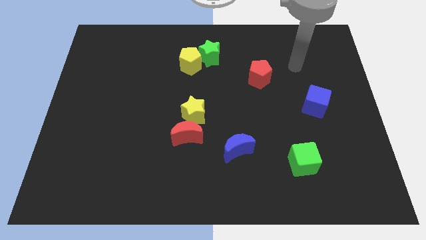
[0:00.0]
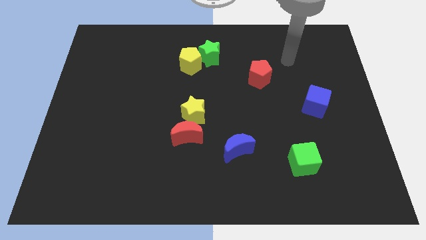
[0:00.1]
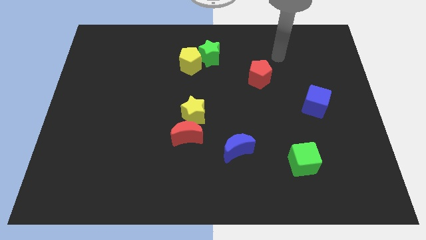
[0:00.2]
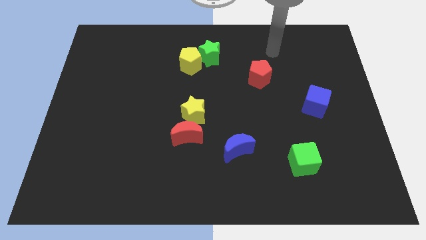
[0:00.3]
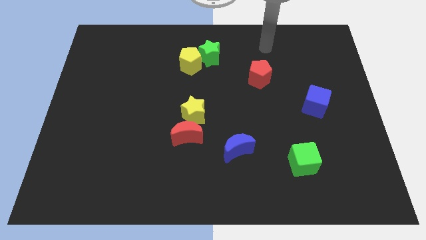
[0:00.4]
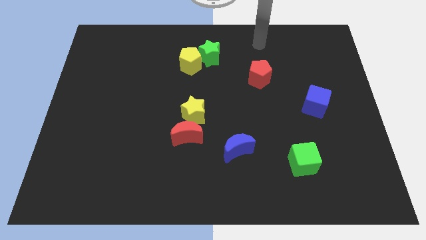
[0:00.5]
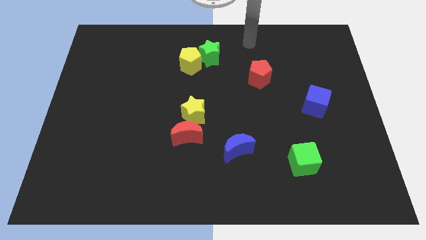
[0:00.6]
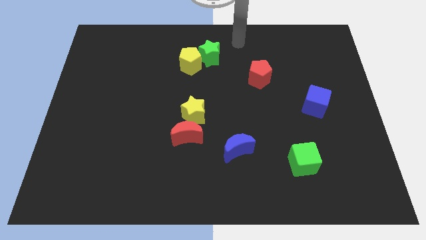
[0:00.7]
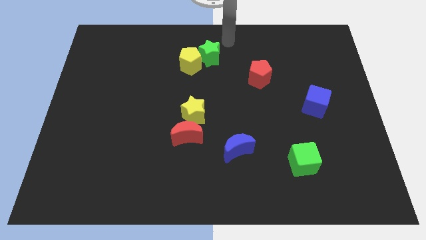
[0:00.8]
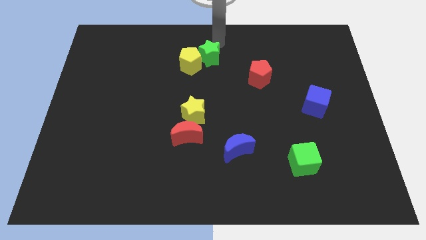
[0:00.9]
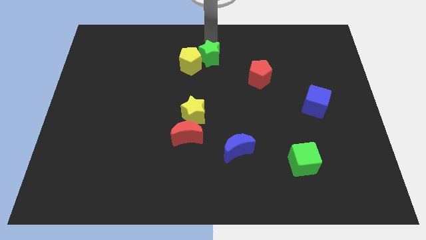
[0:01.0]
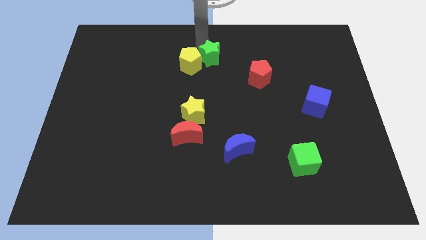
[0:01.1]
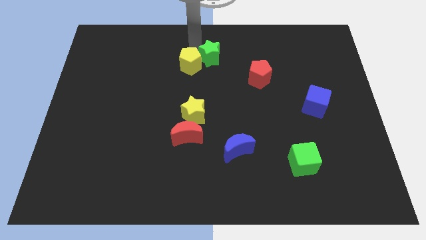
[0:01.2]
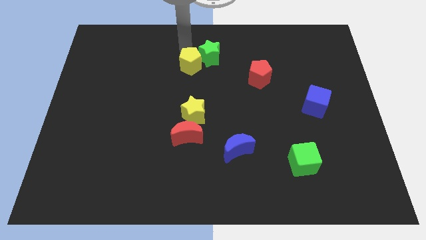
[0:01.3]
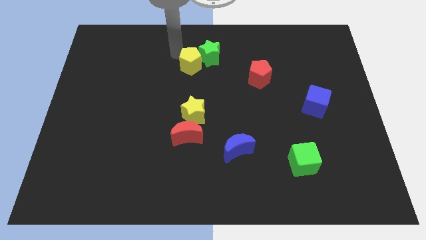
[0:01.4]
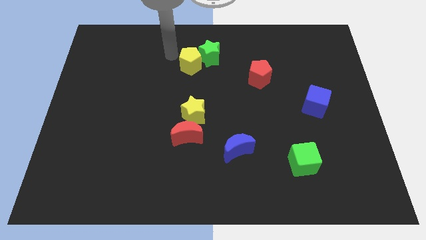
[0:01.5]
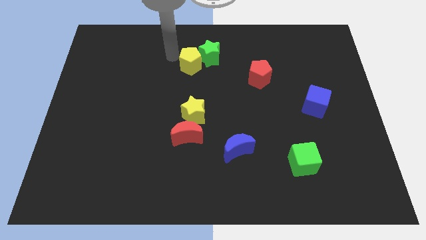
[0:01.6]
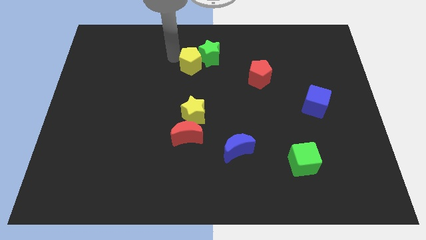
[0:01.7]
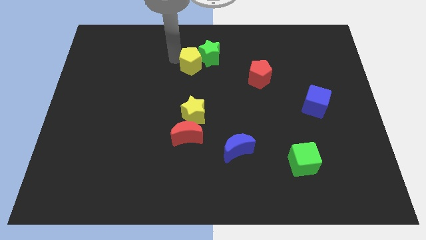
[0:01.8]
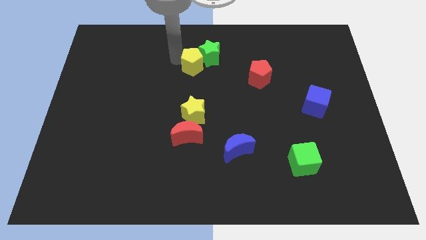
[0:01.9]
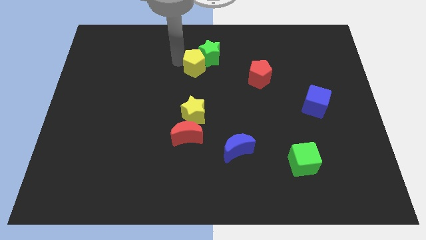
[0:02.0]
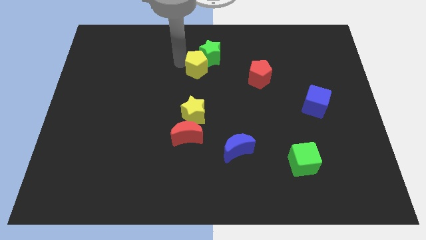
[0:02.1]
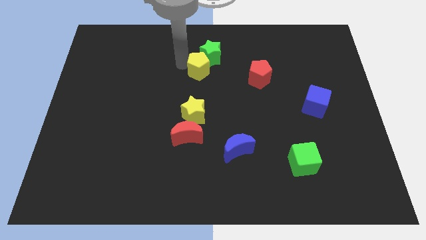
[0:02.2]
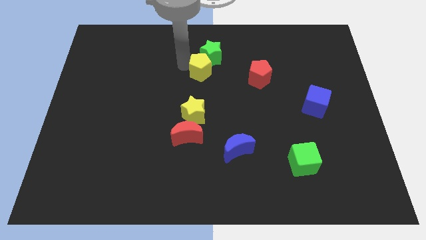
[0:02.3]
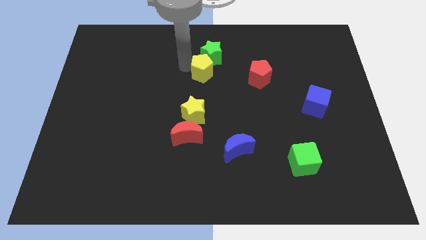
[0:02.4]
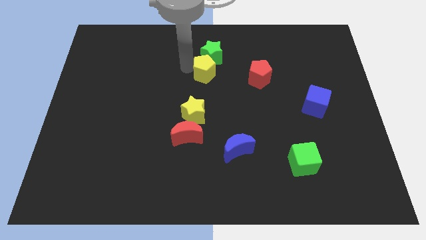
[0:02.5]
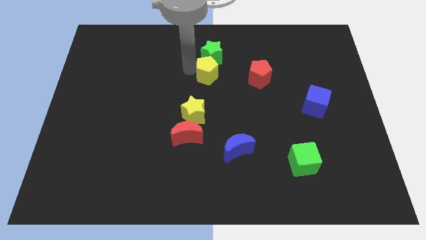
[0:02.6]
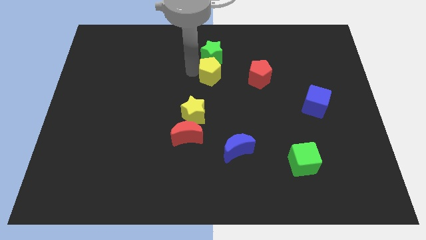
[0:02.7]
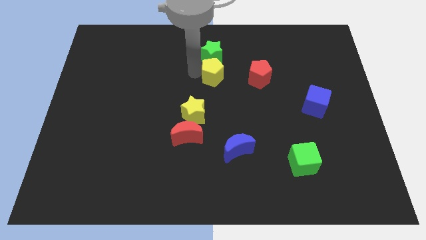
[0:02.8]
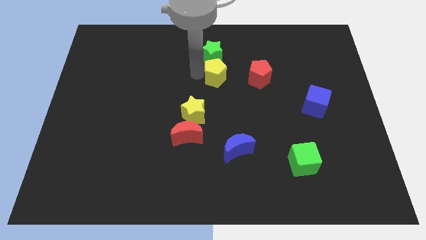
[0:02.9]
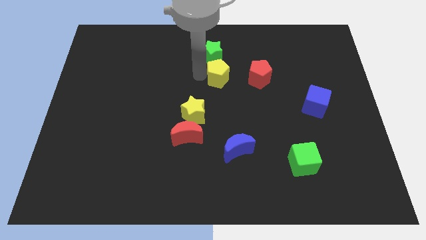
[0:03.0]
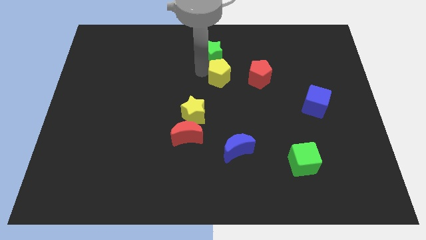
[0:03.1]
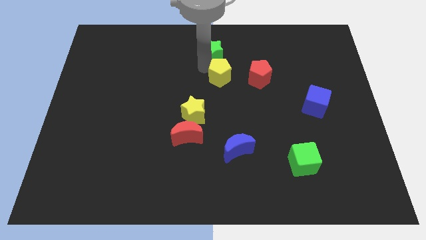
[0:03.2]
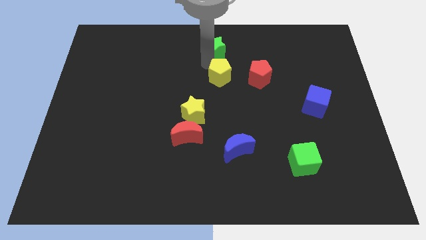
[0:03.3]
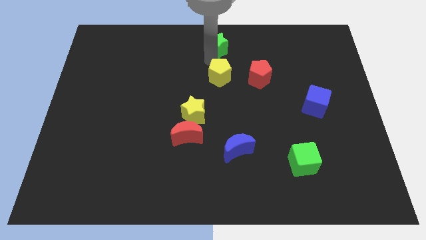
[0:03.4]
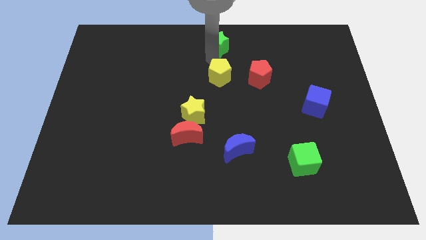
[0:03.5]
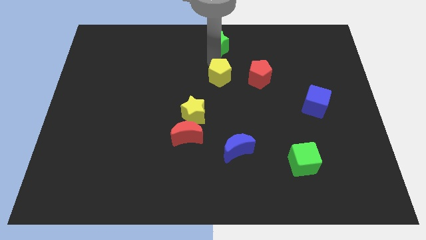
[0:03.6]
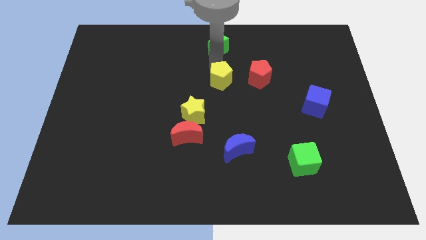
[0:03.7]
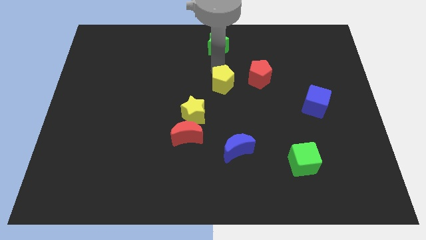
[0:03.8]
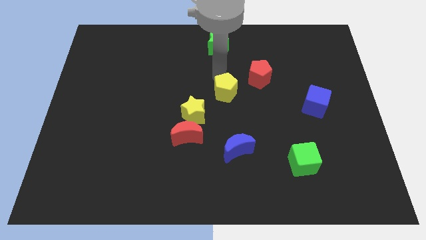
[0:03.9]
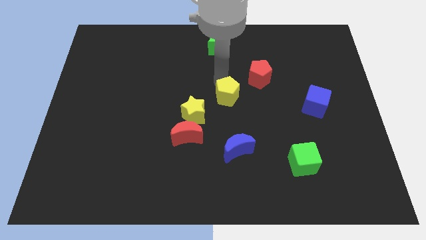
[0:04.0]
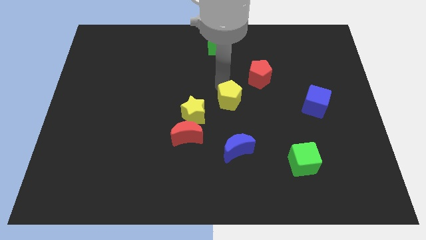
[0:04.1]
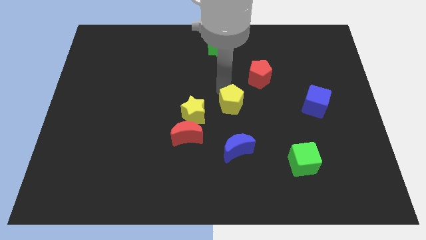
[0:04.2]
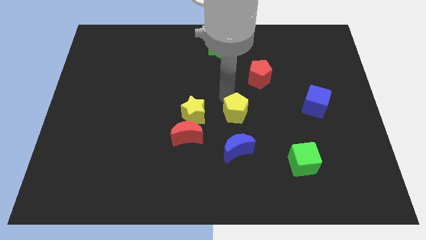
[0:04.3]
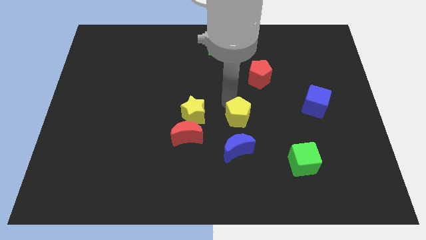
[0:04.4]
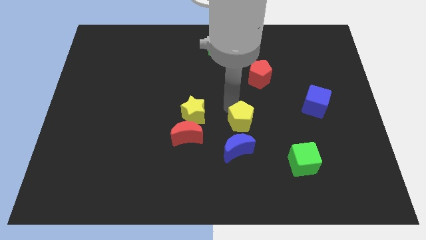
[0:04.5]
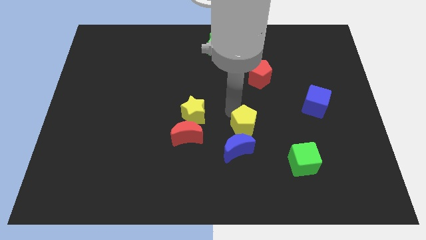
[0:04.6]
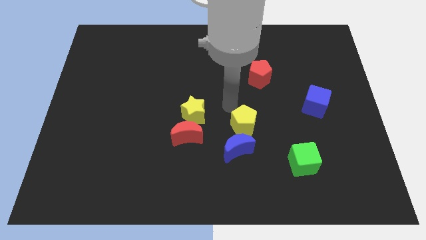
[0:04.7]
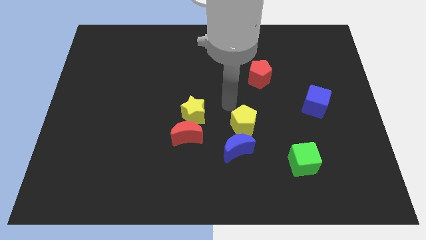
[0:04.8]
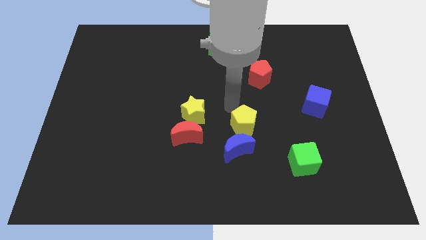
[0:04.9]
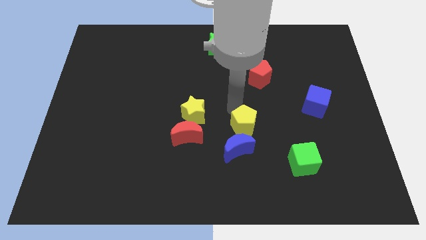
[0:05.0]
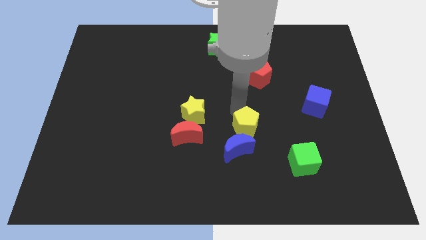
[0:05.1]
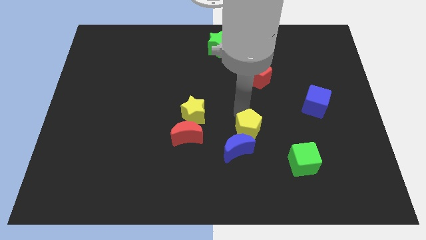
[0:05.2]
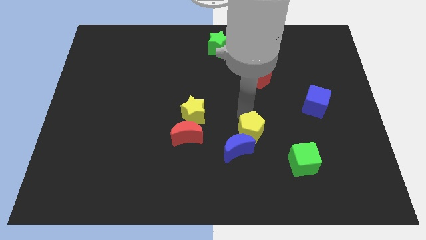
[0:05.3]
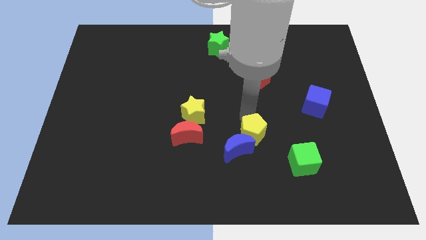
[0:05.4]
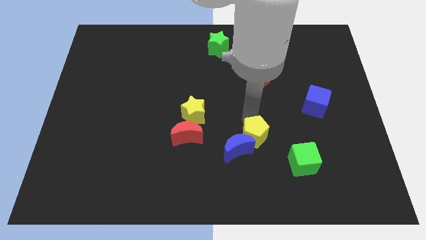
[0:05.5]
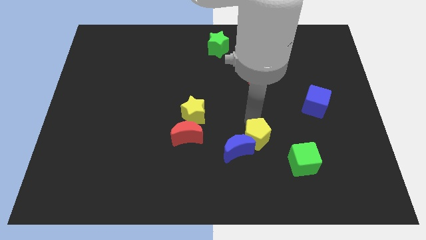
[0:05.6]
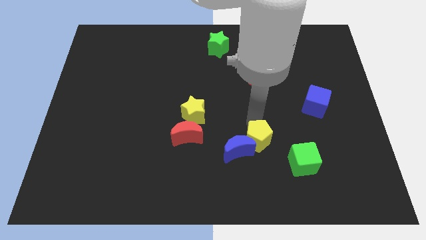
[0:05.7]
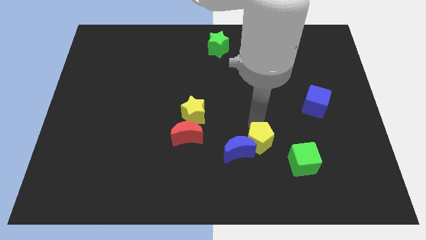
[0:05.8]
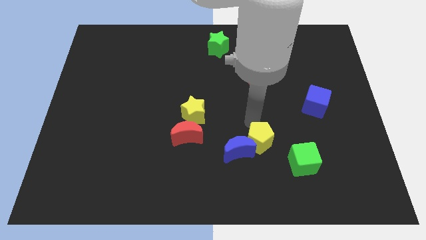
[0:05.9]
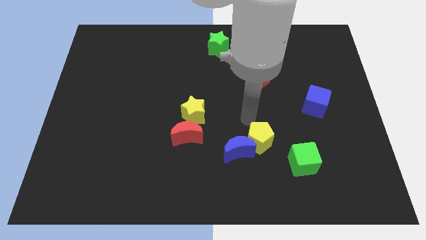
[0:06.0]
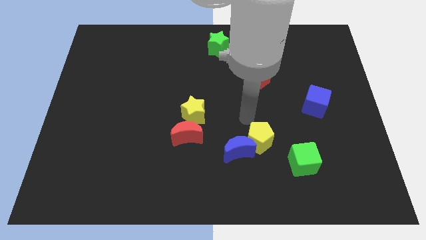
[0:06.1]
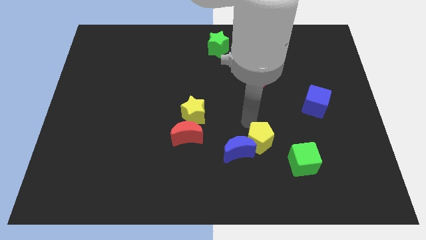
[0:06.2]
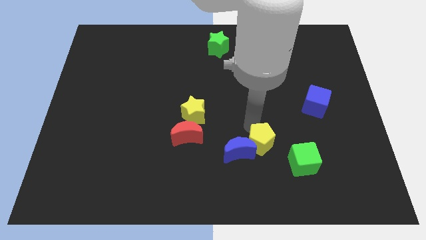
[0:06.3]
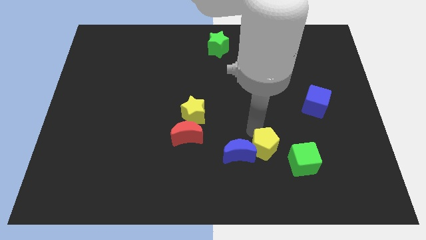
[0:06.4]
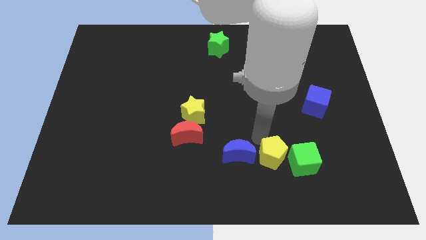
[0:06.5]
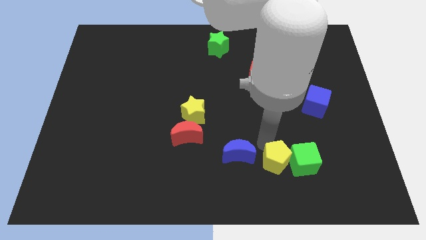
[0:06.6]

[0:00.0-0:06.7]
push the yellow pentagon to the bottom left side of the green cube

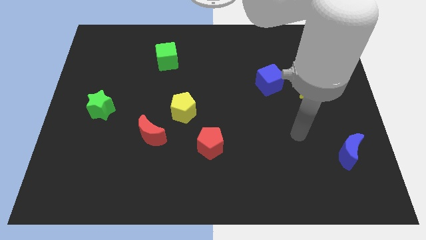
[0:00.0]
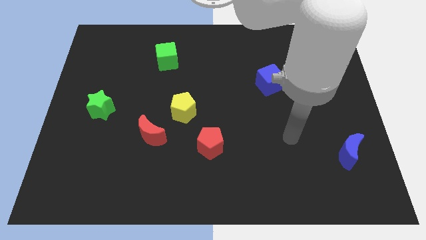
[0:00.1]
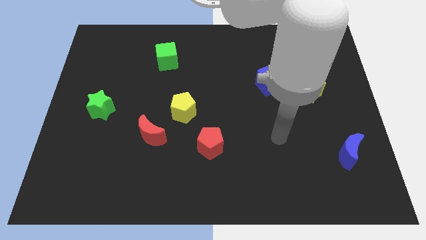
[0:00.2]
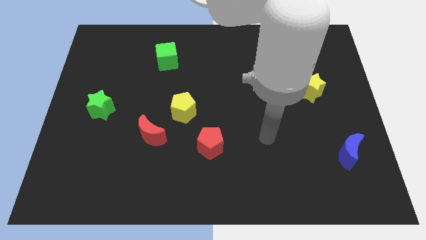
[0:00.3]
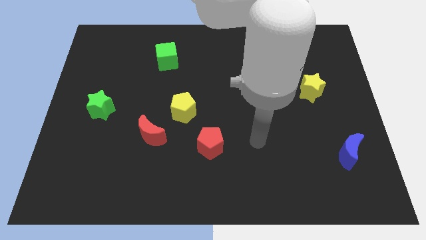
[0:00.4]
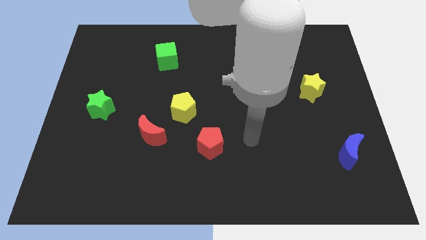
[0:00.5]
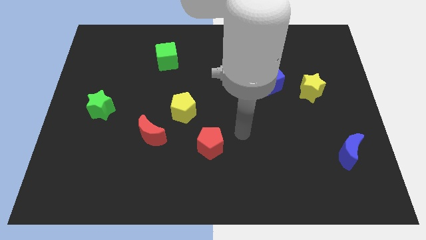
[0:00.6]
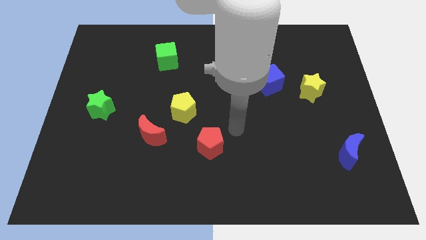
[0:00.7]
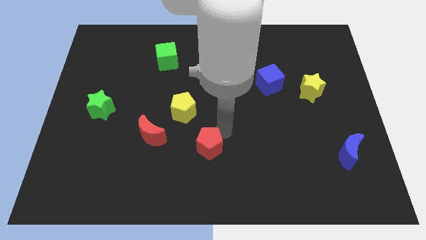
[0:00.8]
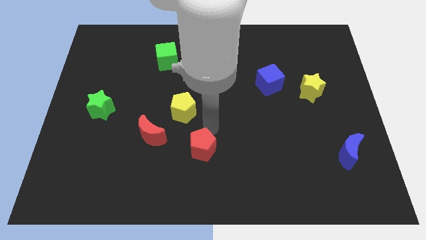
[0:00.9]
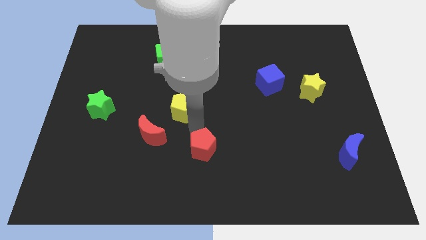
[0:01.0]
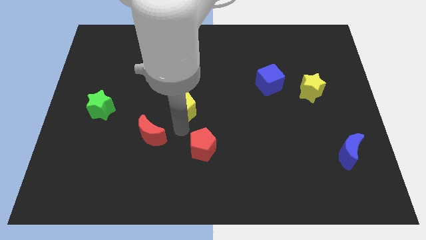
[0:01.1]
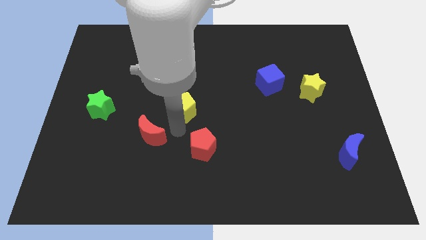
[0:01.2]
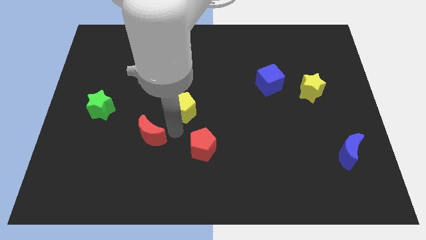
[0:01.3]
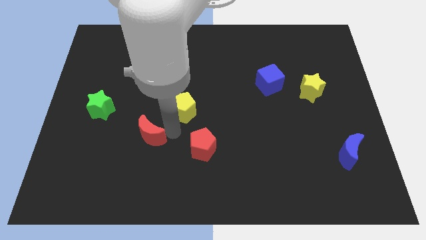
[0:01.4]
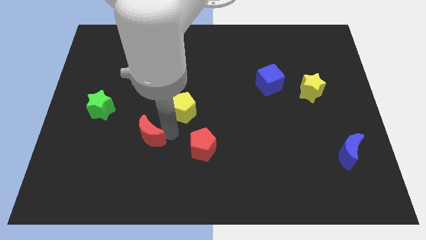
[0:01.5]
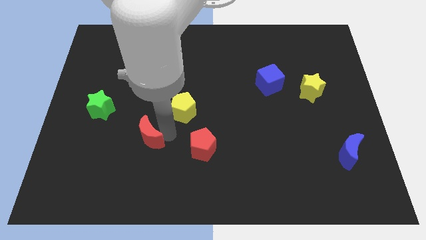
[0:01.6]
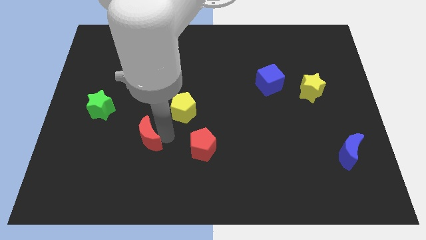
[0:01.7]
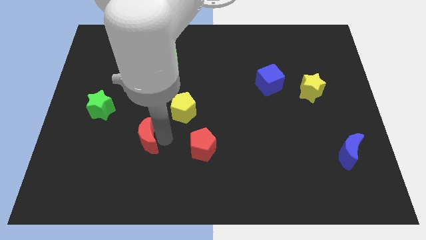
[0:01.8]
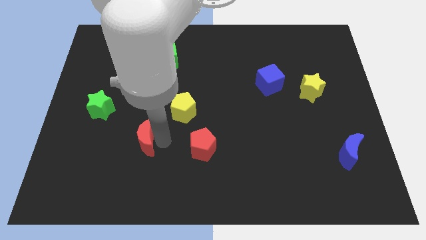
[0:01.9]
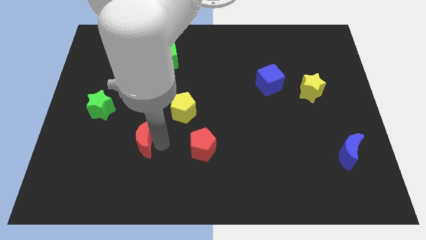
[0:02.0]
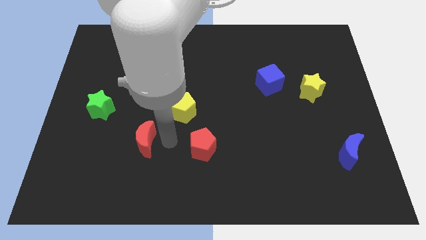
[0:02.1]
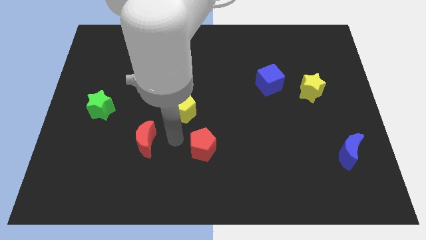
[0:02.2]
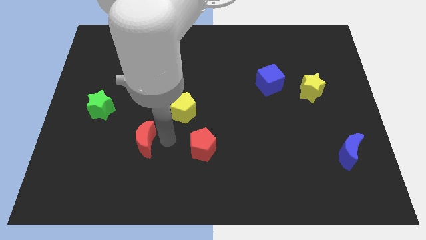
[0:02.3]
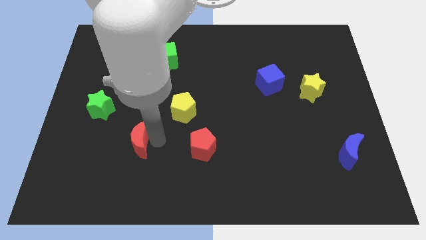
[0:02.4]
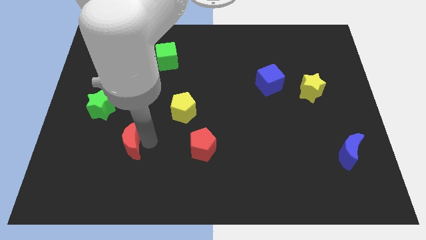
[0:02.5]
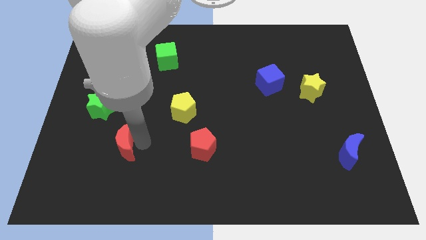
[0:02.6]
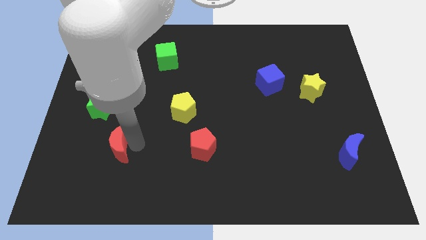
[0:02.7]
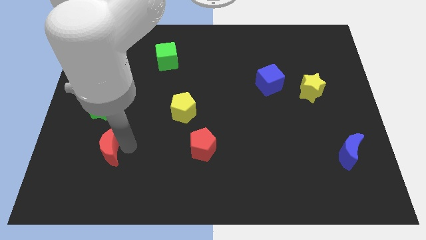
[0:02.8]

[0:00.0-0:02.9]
slide the red moon to the bottom of the green star
